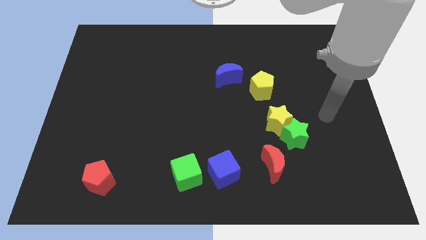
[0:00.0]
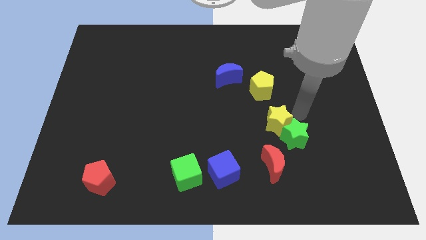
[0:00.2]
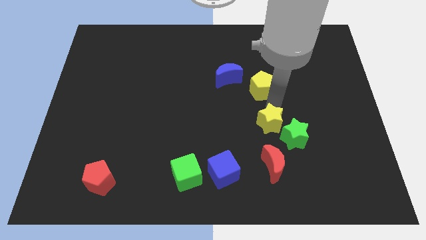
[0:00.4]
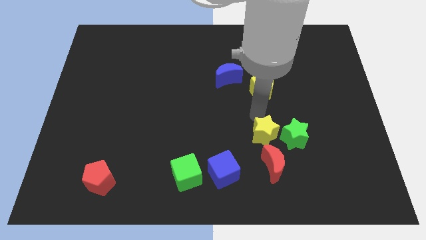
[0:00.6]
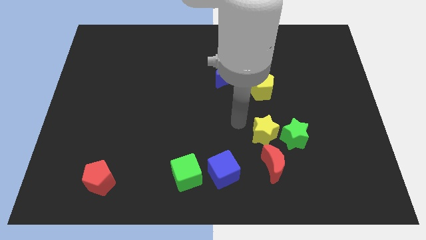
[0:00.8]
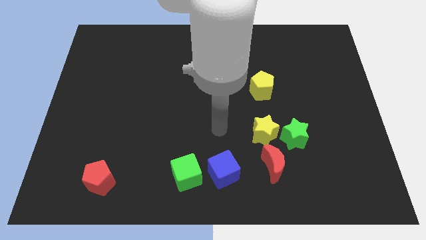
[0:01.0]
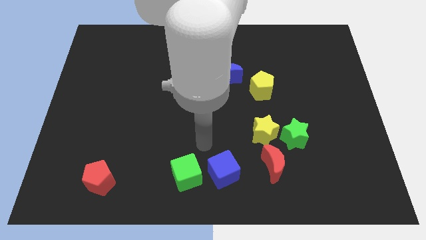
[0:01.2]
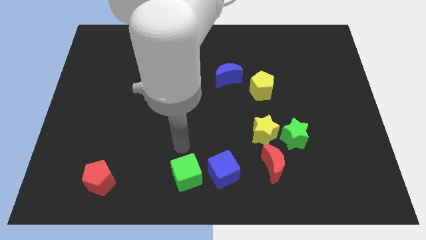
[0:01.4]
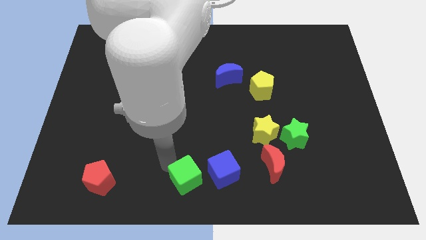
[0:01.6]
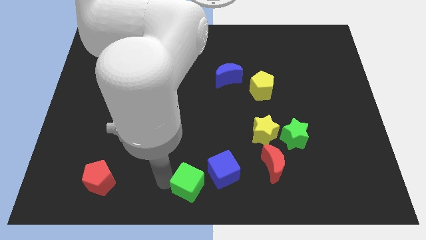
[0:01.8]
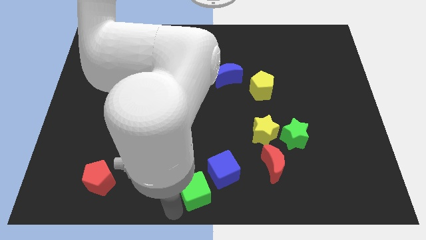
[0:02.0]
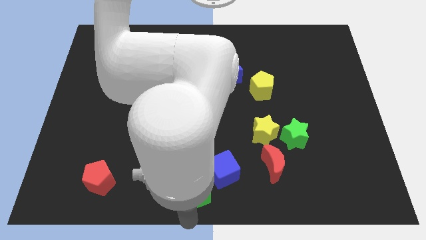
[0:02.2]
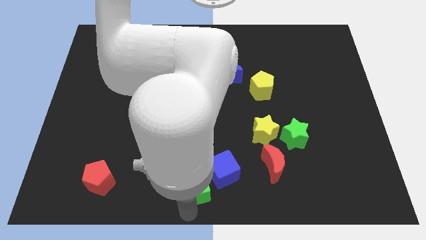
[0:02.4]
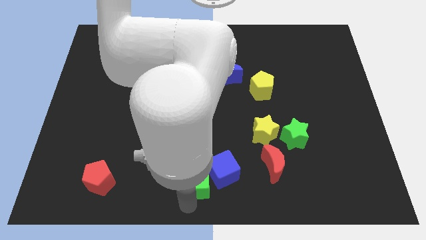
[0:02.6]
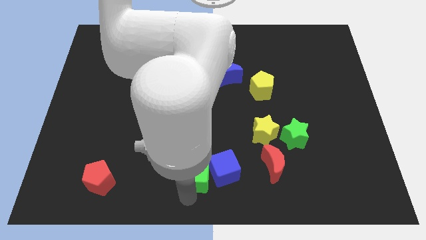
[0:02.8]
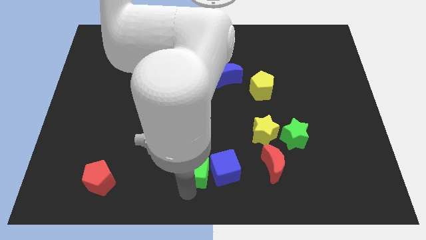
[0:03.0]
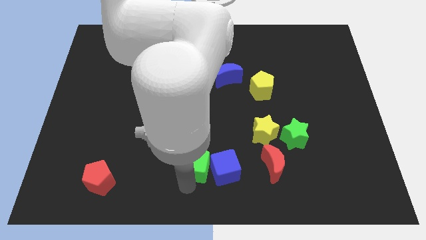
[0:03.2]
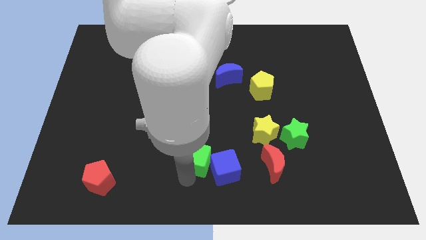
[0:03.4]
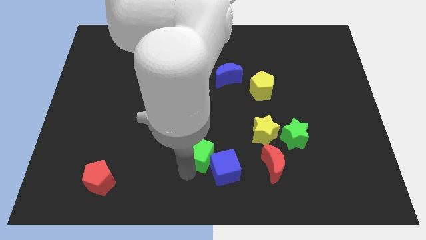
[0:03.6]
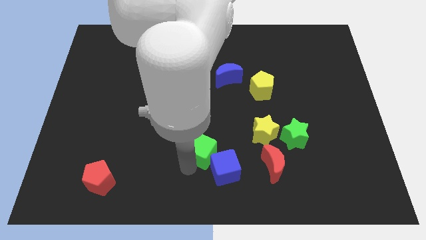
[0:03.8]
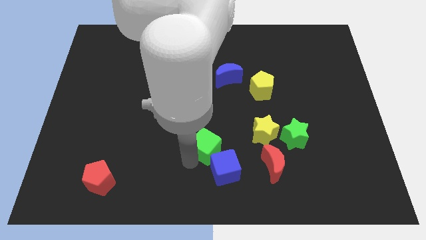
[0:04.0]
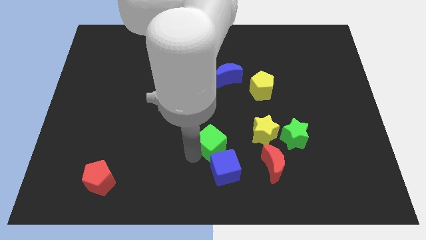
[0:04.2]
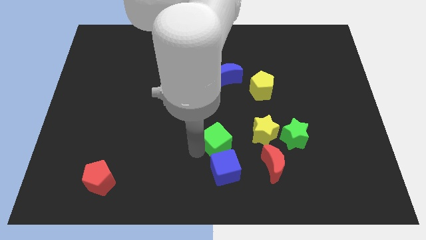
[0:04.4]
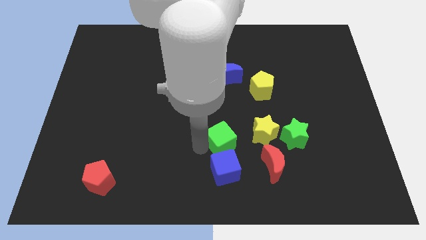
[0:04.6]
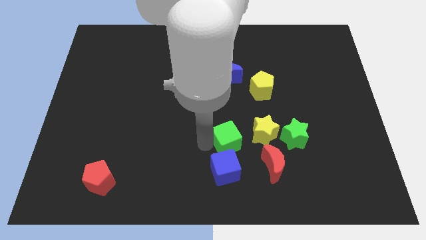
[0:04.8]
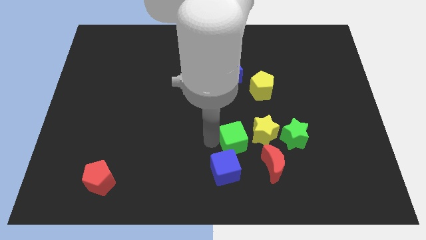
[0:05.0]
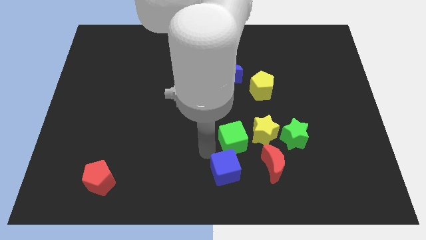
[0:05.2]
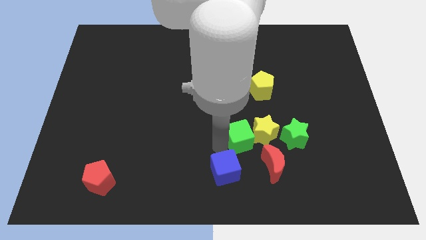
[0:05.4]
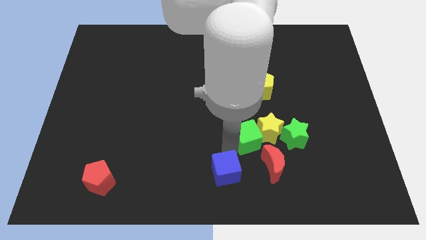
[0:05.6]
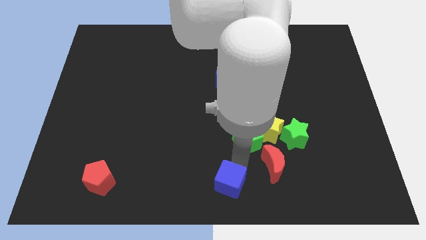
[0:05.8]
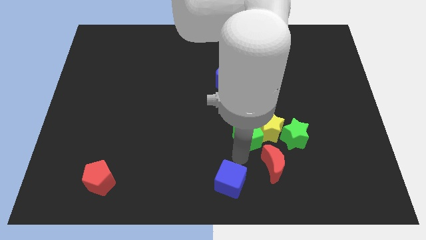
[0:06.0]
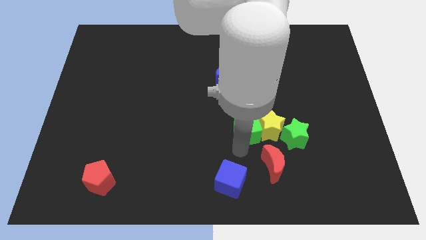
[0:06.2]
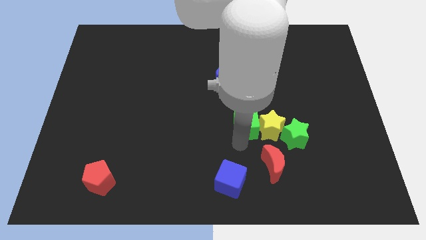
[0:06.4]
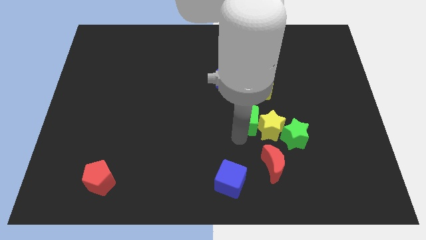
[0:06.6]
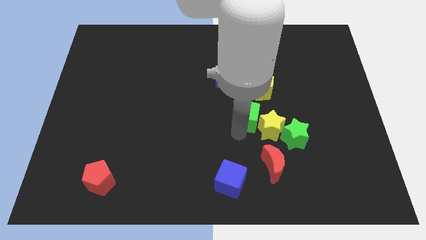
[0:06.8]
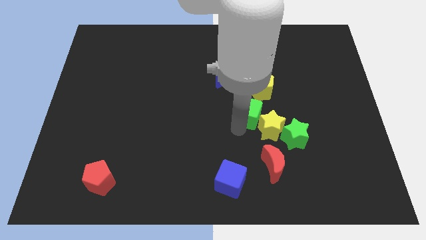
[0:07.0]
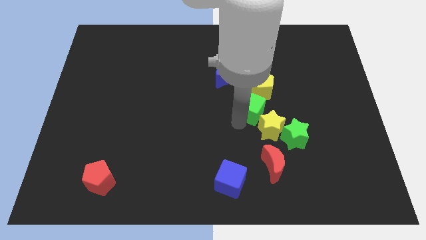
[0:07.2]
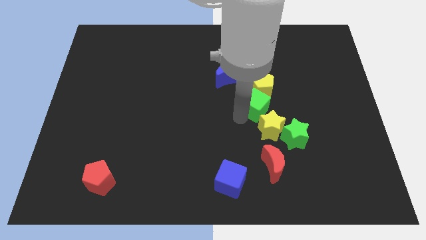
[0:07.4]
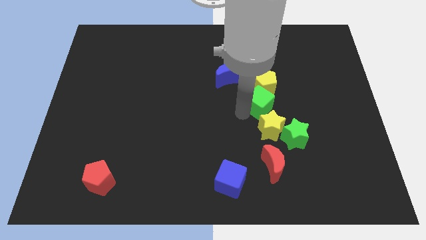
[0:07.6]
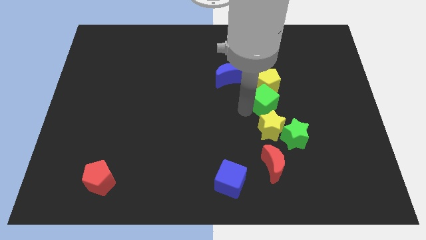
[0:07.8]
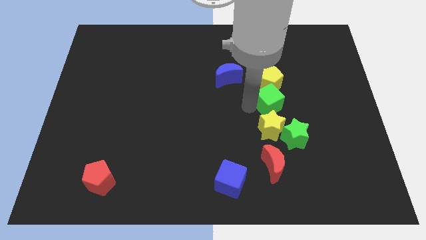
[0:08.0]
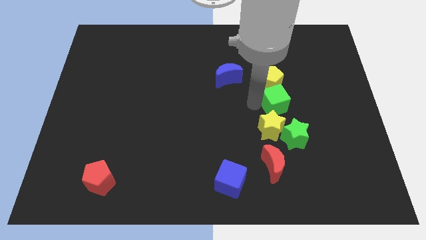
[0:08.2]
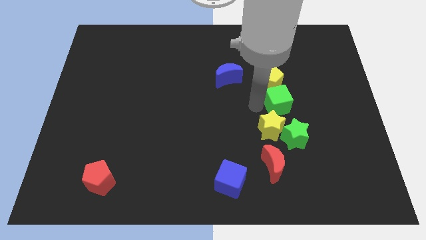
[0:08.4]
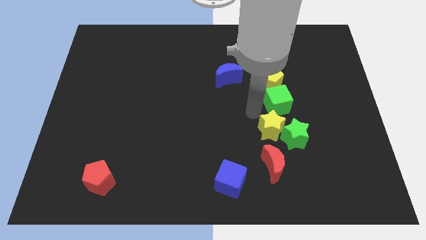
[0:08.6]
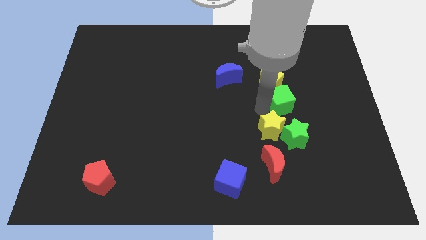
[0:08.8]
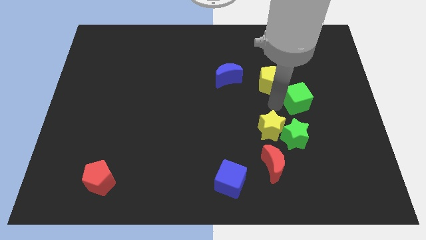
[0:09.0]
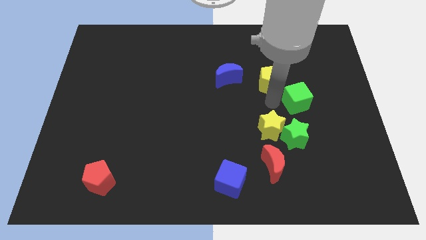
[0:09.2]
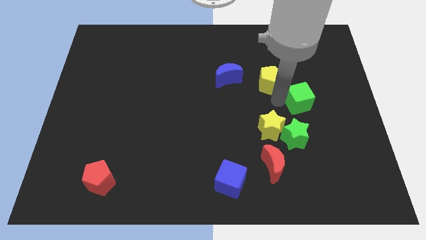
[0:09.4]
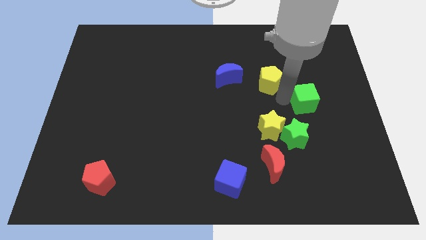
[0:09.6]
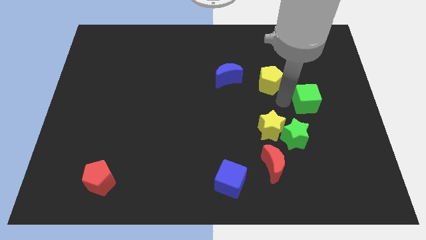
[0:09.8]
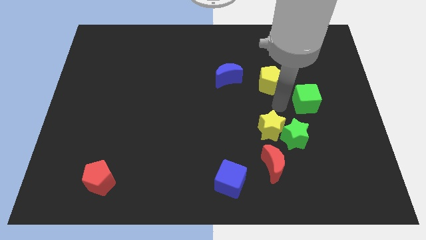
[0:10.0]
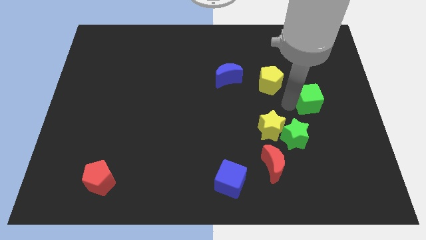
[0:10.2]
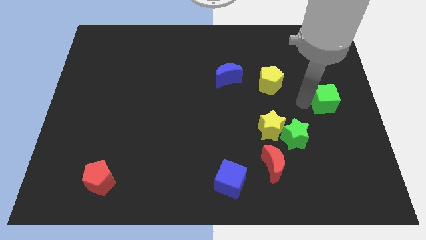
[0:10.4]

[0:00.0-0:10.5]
put the green cube to the right side

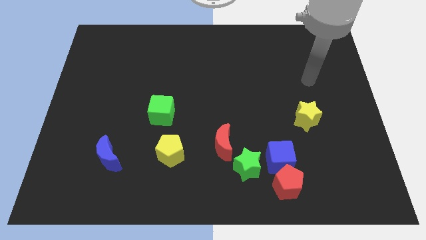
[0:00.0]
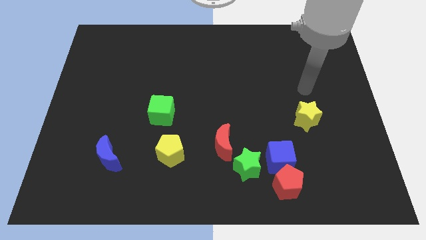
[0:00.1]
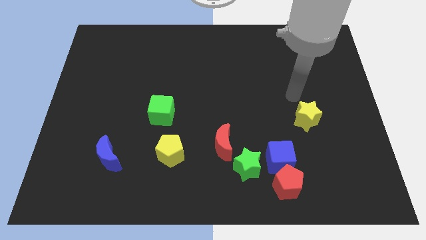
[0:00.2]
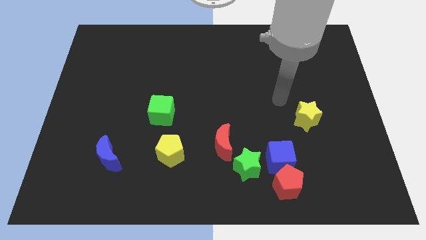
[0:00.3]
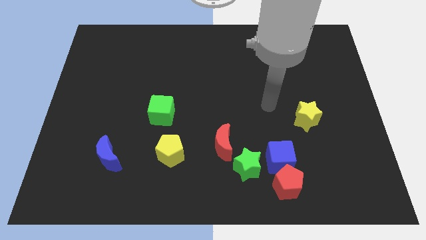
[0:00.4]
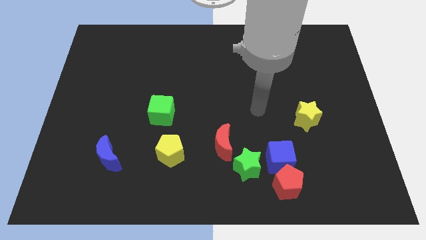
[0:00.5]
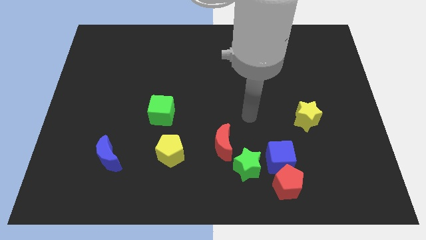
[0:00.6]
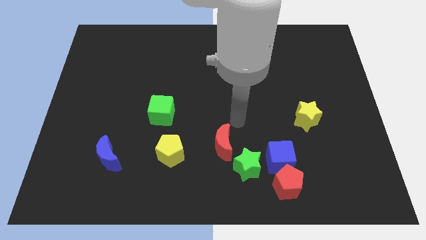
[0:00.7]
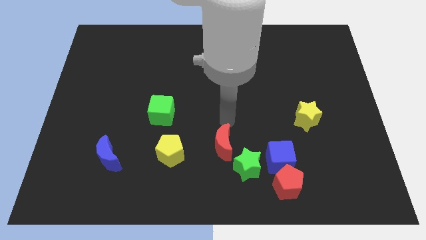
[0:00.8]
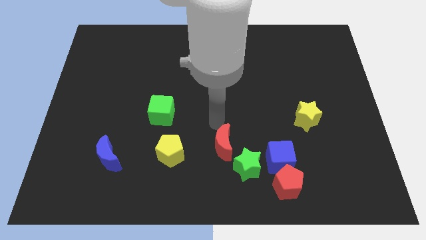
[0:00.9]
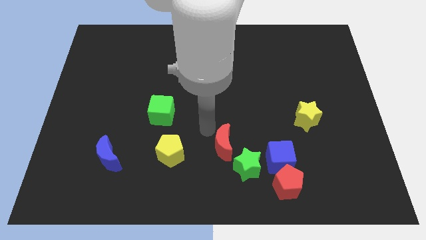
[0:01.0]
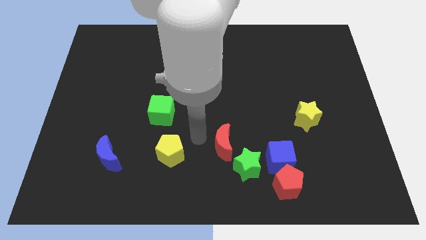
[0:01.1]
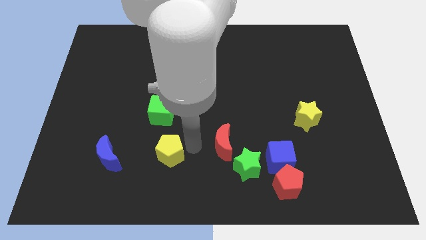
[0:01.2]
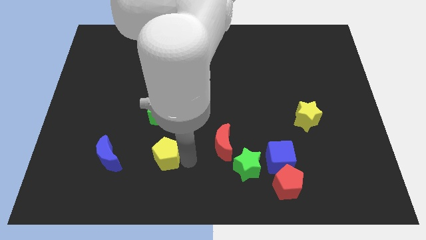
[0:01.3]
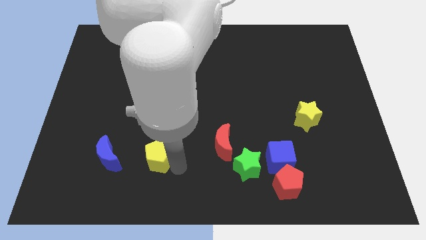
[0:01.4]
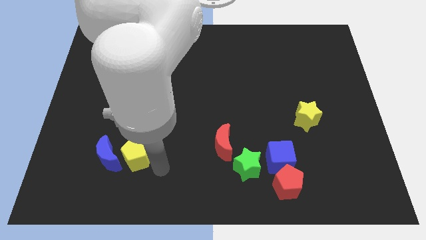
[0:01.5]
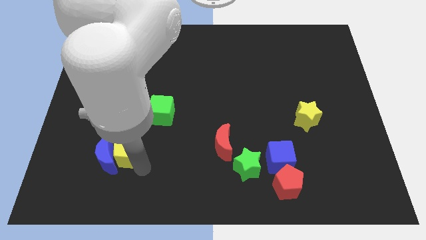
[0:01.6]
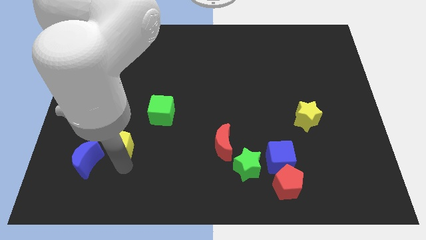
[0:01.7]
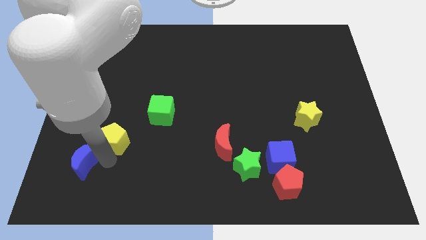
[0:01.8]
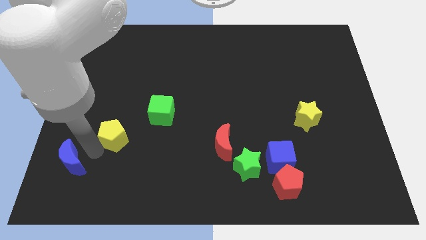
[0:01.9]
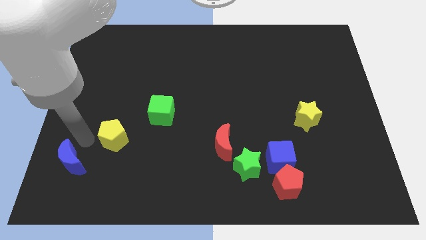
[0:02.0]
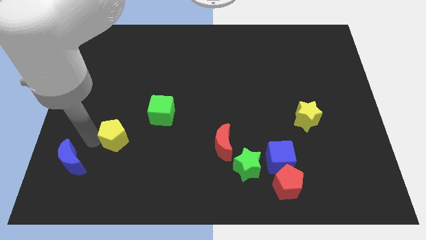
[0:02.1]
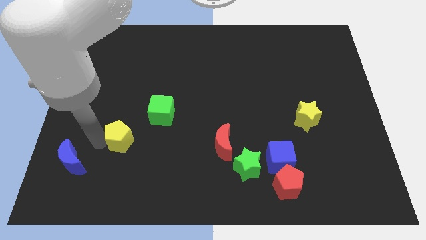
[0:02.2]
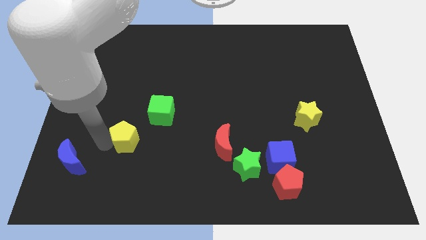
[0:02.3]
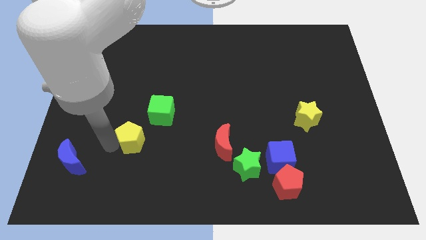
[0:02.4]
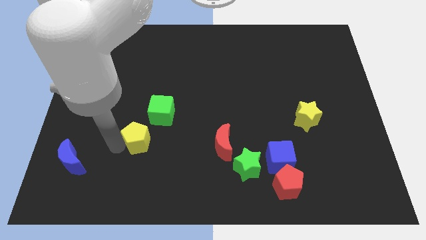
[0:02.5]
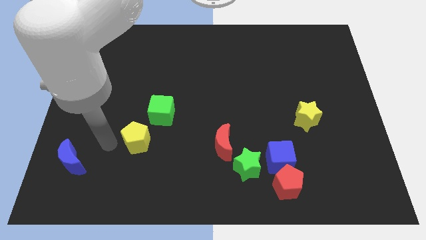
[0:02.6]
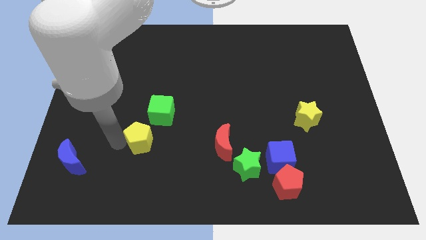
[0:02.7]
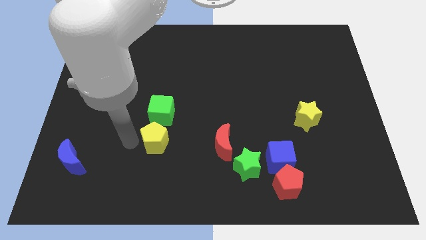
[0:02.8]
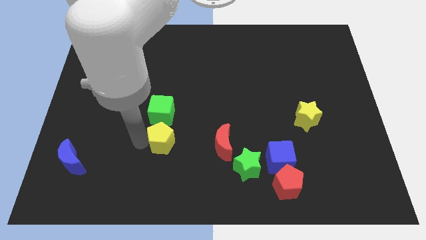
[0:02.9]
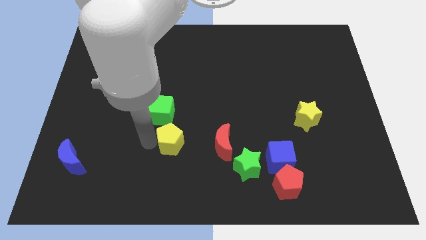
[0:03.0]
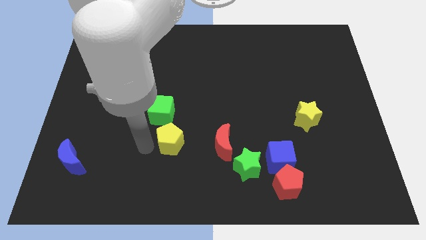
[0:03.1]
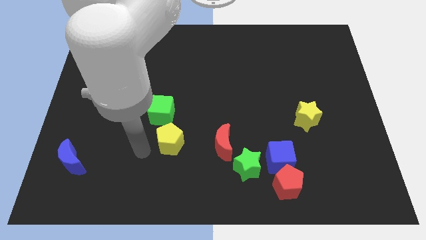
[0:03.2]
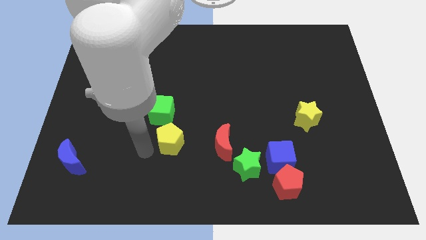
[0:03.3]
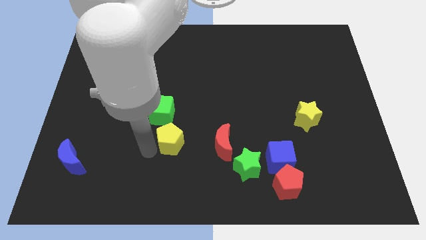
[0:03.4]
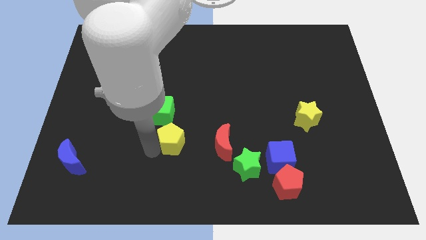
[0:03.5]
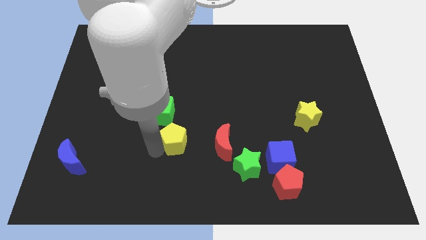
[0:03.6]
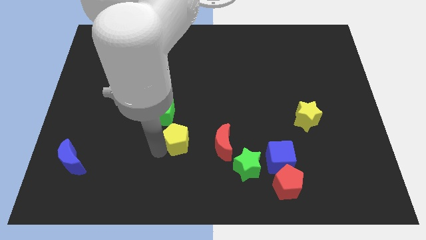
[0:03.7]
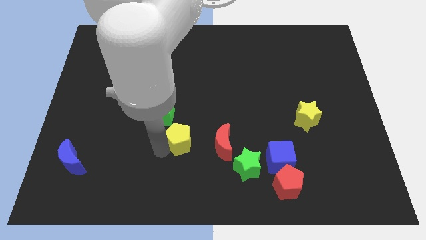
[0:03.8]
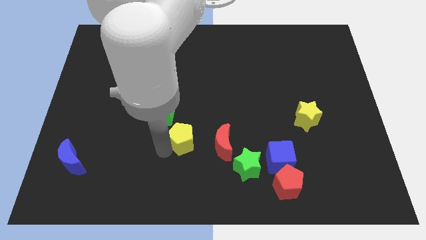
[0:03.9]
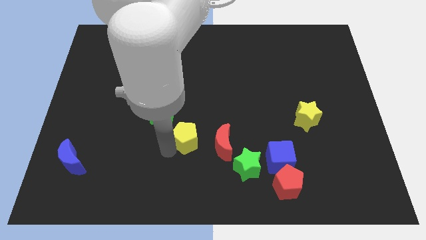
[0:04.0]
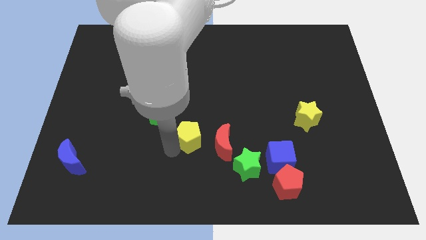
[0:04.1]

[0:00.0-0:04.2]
slide the yellow pentagon to the middle
